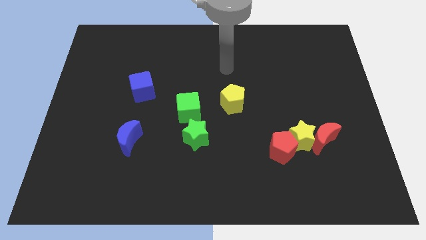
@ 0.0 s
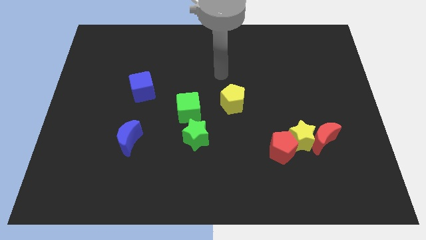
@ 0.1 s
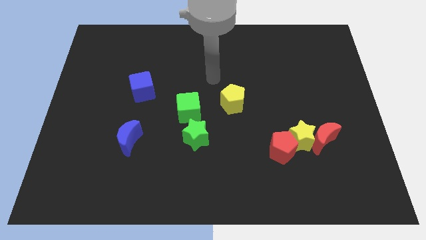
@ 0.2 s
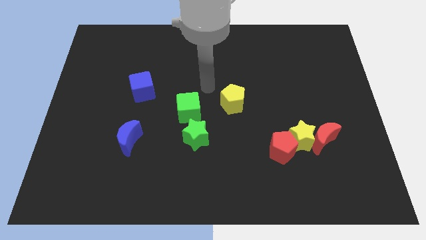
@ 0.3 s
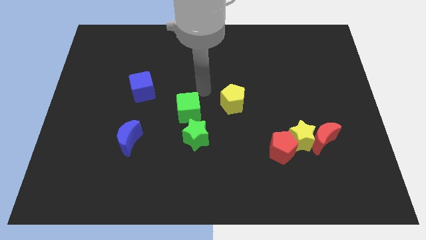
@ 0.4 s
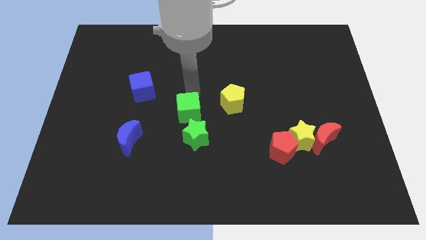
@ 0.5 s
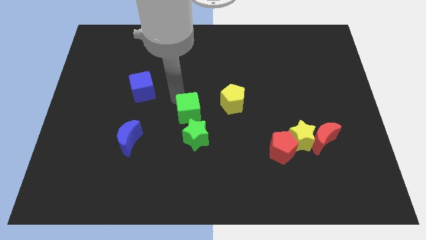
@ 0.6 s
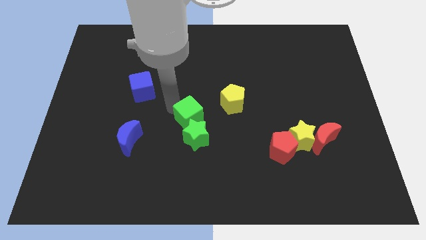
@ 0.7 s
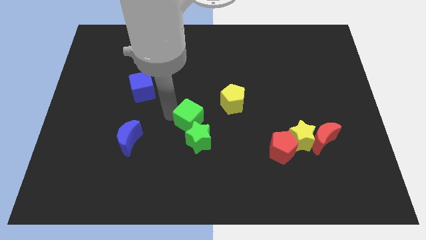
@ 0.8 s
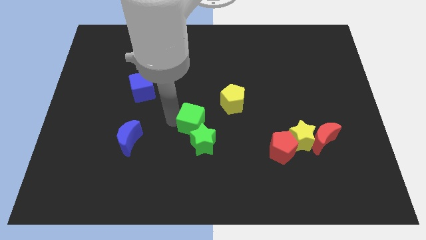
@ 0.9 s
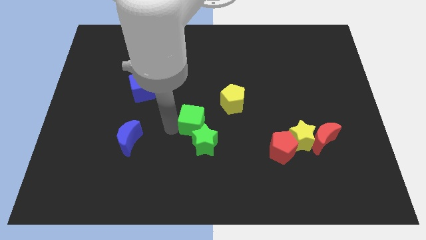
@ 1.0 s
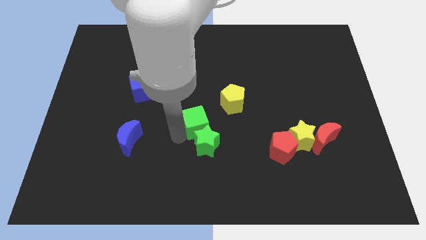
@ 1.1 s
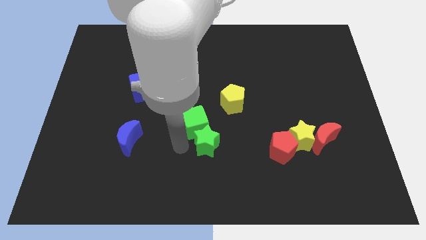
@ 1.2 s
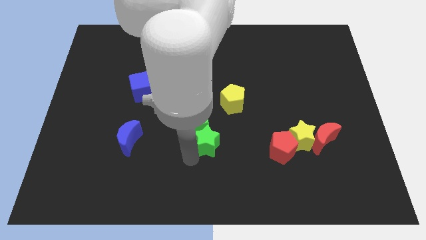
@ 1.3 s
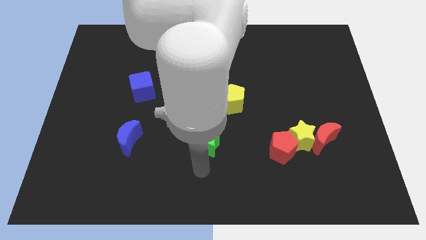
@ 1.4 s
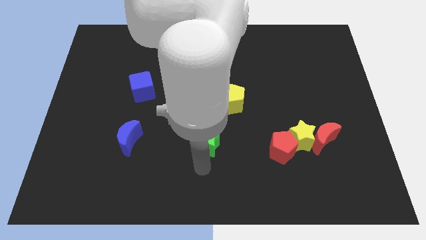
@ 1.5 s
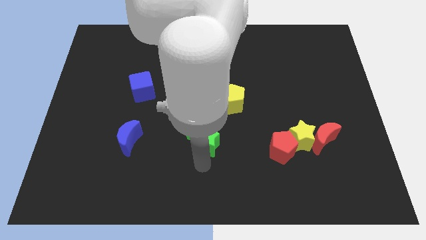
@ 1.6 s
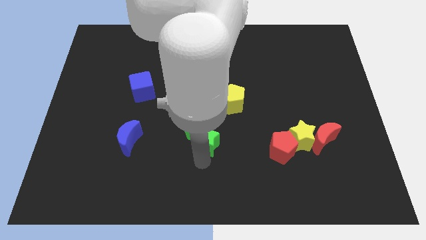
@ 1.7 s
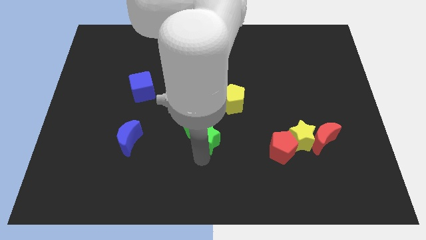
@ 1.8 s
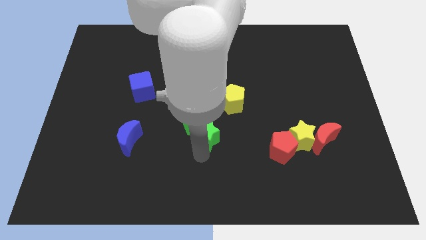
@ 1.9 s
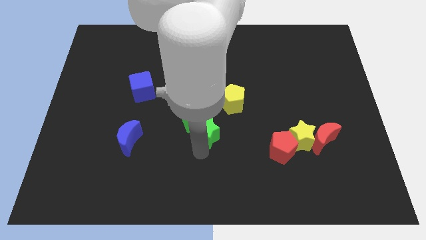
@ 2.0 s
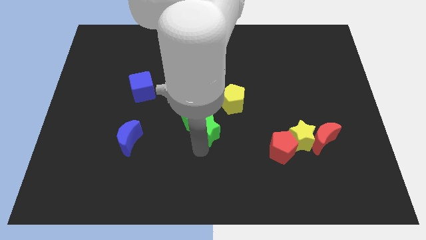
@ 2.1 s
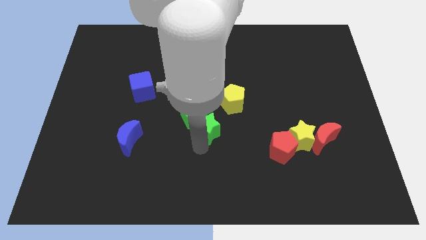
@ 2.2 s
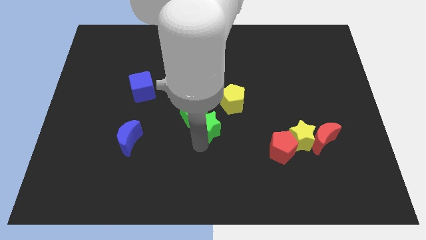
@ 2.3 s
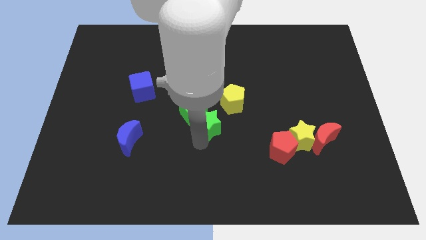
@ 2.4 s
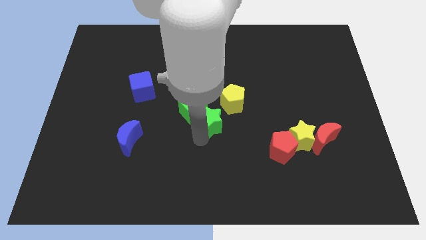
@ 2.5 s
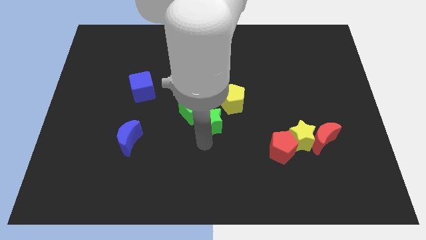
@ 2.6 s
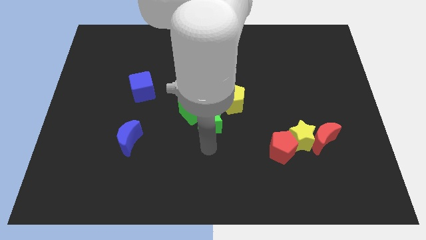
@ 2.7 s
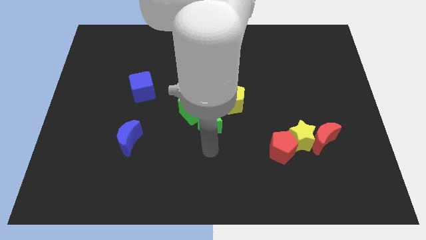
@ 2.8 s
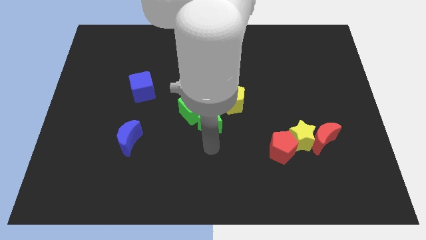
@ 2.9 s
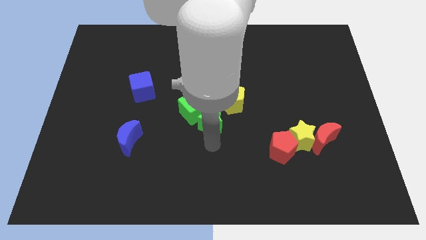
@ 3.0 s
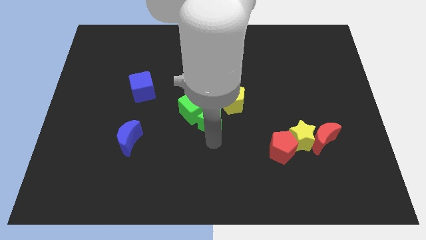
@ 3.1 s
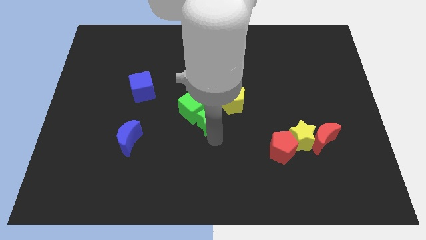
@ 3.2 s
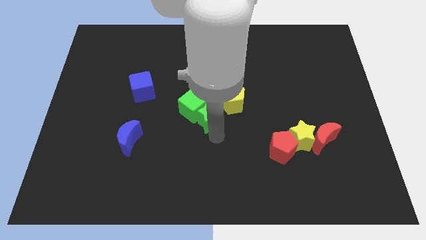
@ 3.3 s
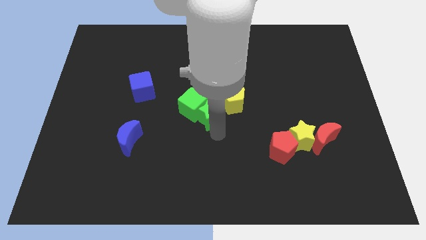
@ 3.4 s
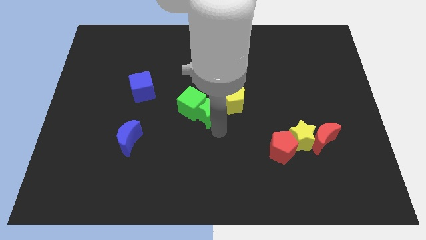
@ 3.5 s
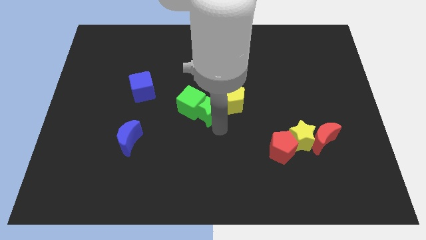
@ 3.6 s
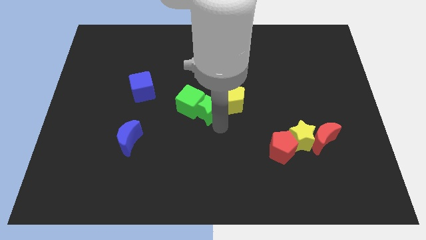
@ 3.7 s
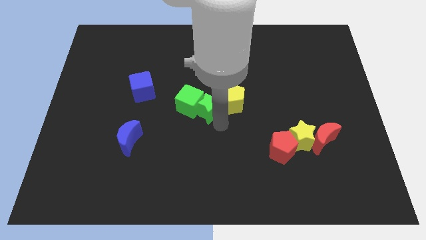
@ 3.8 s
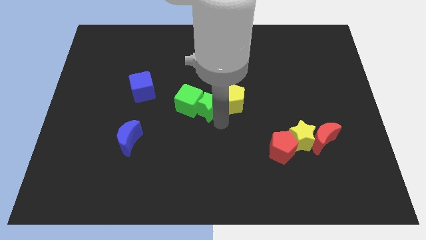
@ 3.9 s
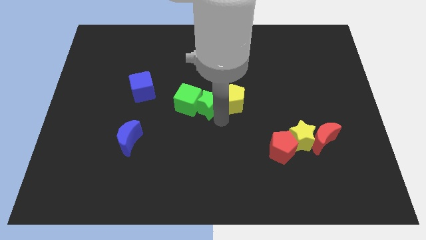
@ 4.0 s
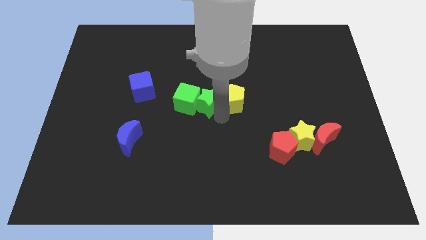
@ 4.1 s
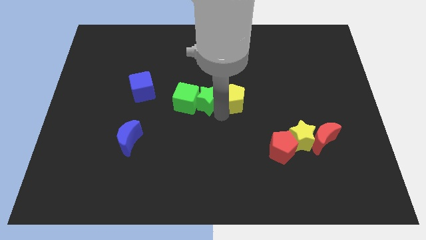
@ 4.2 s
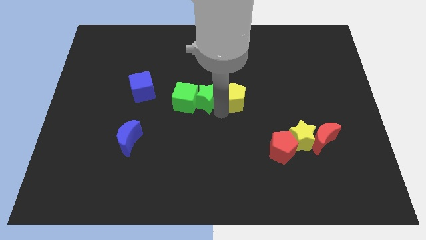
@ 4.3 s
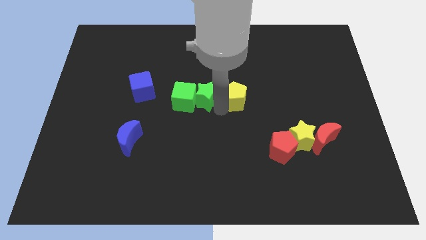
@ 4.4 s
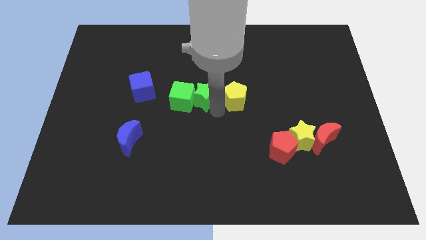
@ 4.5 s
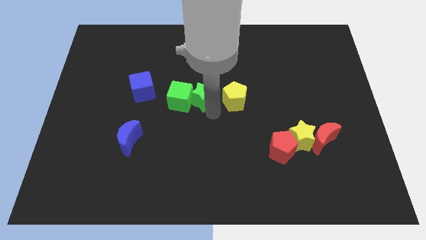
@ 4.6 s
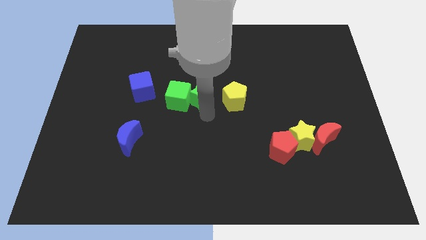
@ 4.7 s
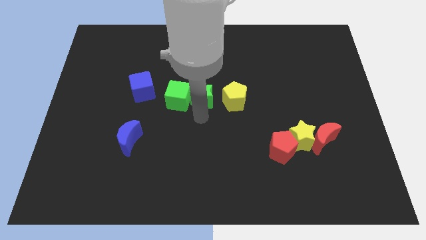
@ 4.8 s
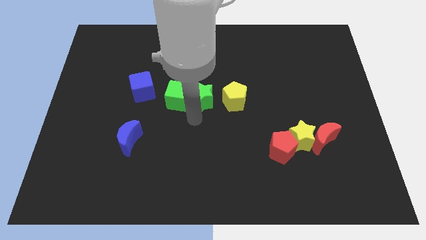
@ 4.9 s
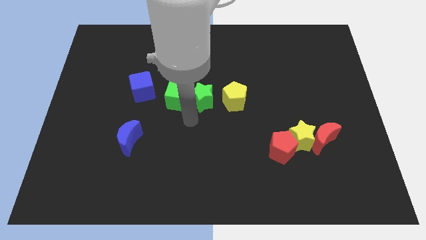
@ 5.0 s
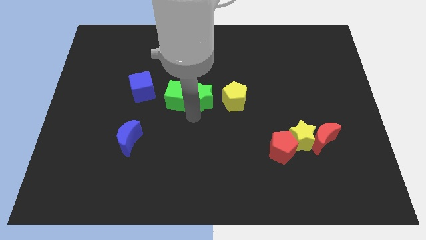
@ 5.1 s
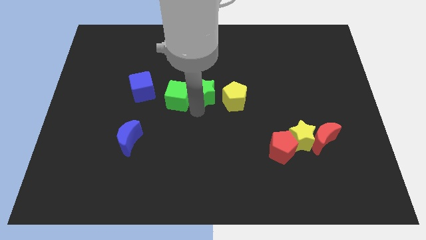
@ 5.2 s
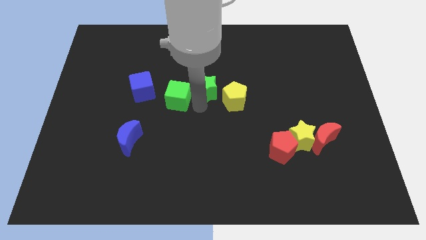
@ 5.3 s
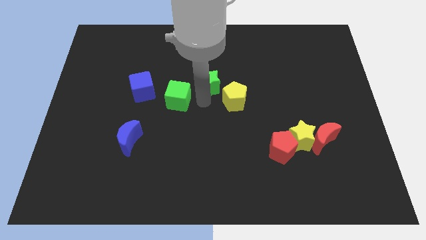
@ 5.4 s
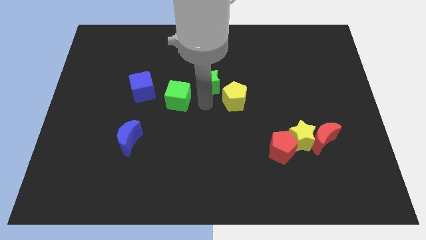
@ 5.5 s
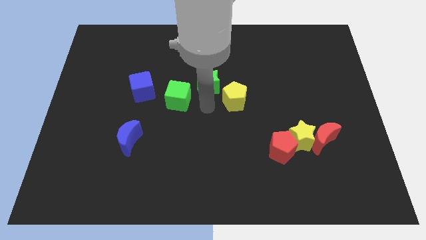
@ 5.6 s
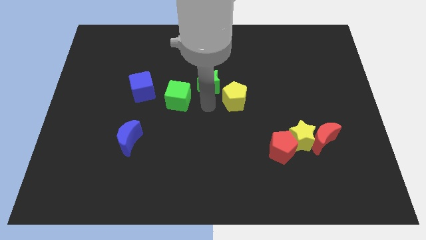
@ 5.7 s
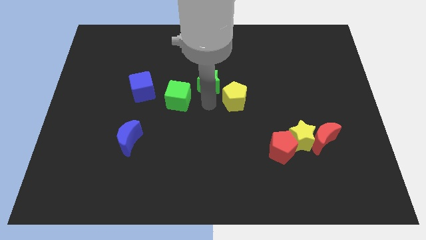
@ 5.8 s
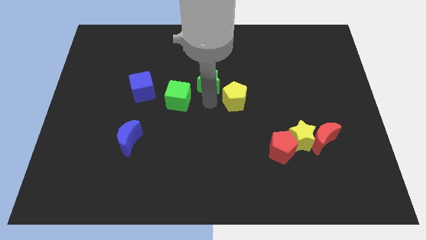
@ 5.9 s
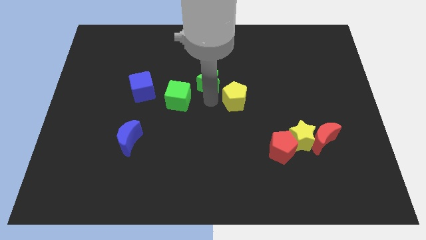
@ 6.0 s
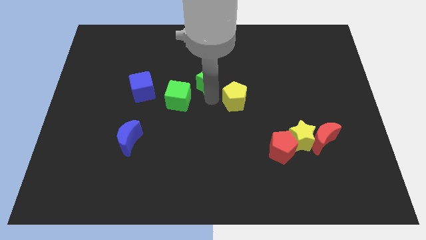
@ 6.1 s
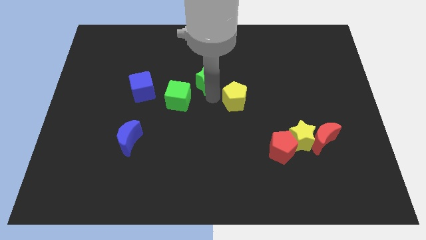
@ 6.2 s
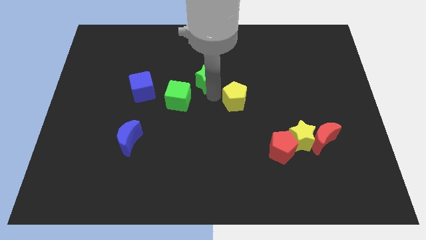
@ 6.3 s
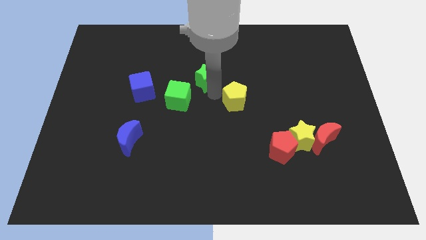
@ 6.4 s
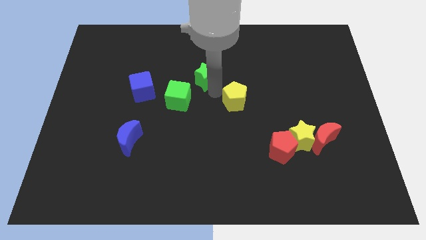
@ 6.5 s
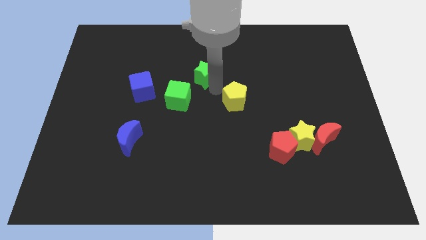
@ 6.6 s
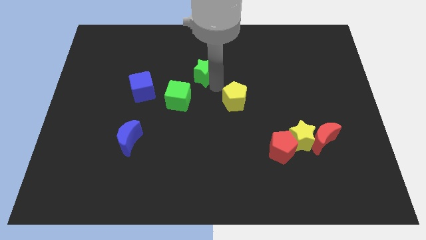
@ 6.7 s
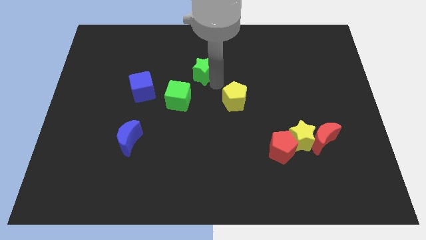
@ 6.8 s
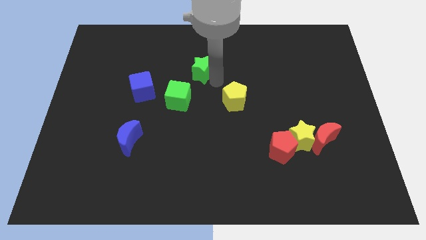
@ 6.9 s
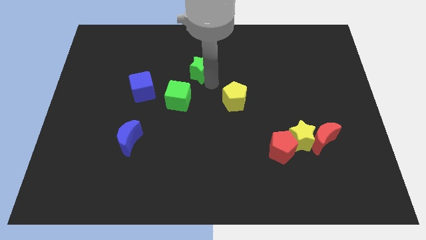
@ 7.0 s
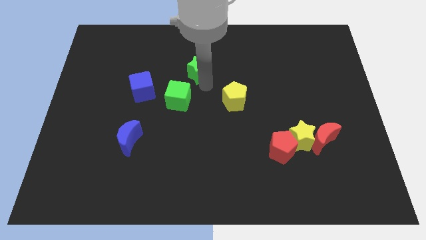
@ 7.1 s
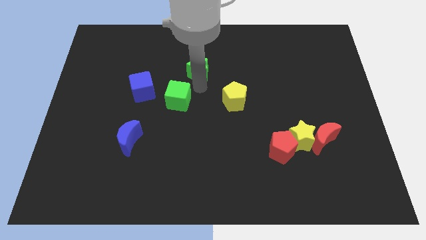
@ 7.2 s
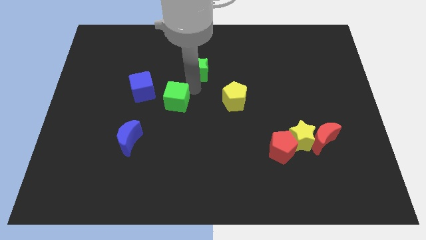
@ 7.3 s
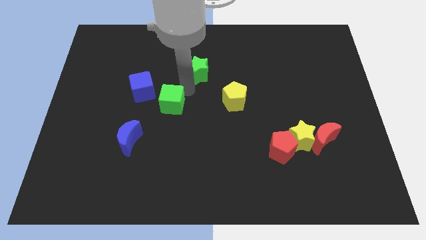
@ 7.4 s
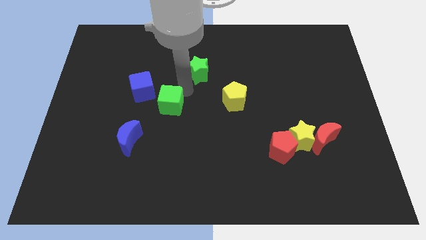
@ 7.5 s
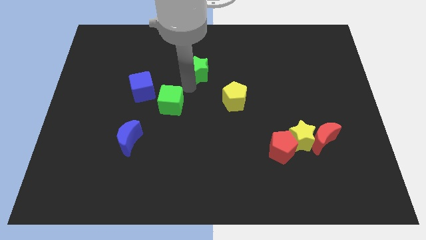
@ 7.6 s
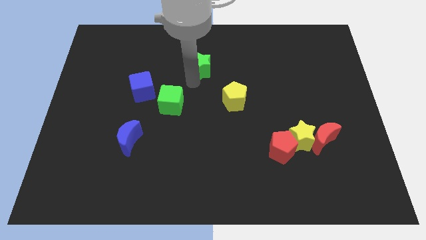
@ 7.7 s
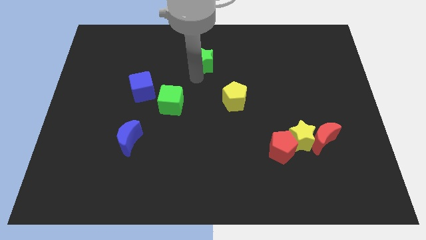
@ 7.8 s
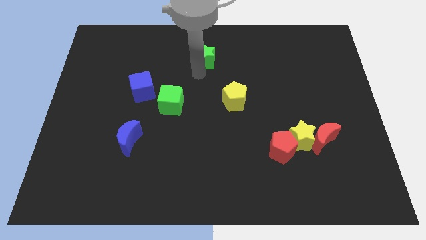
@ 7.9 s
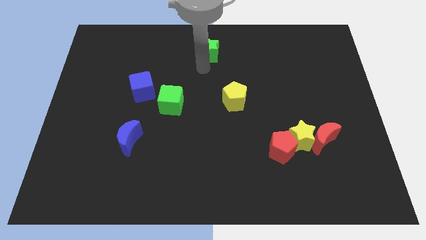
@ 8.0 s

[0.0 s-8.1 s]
move the green star to the top
